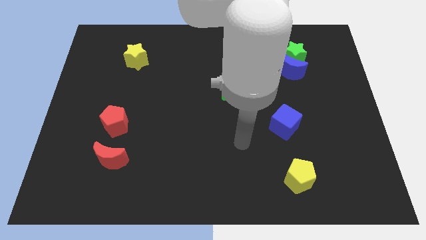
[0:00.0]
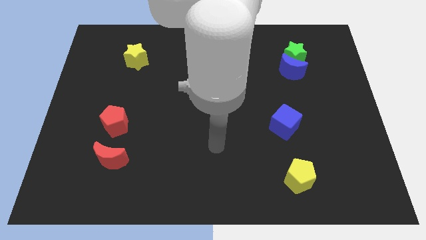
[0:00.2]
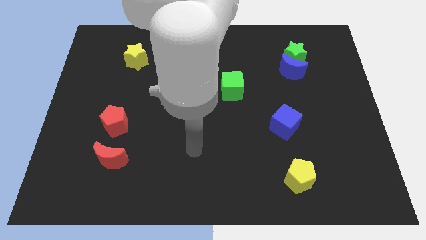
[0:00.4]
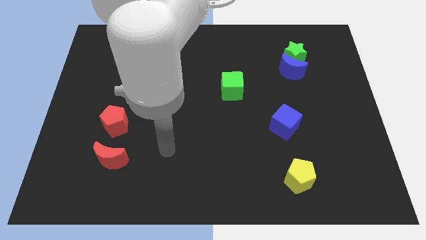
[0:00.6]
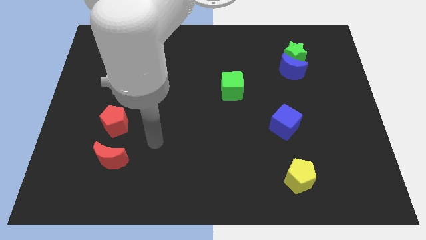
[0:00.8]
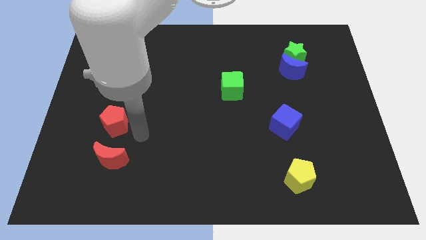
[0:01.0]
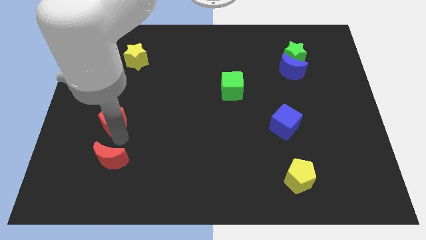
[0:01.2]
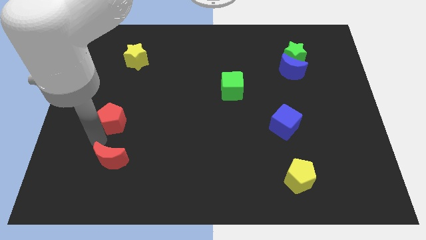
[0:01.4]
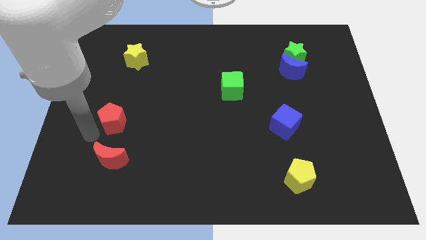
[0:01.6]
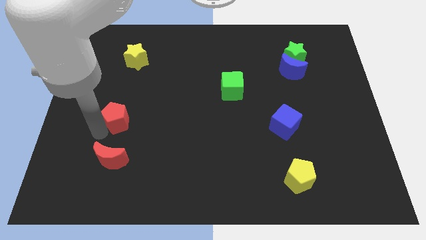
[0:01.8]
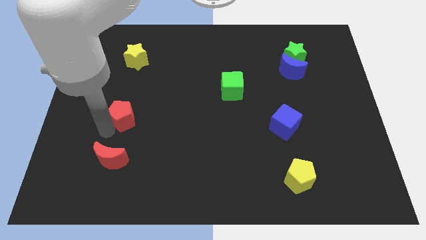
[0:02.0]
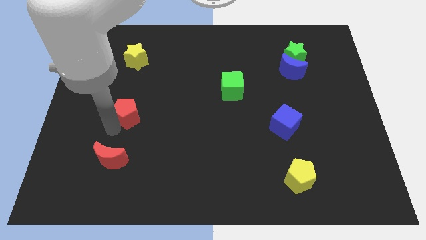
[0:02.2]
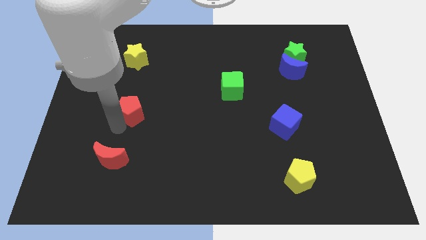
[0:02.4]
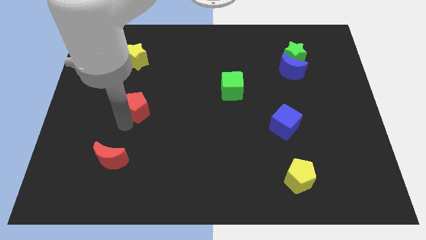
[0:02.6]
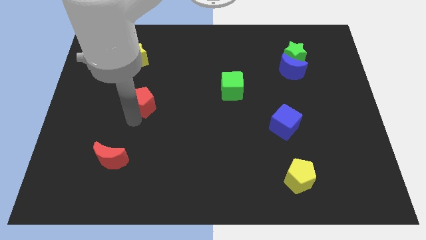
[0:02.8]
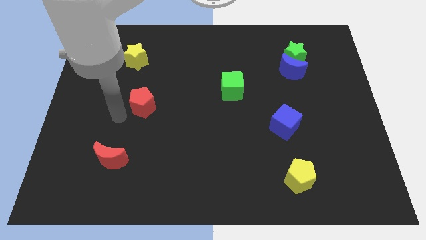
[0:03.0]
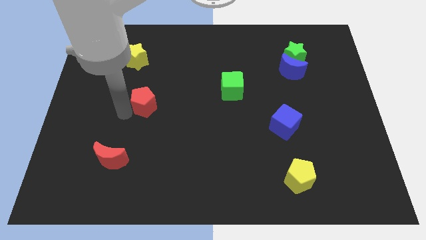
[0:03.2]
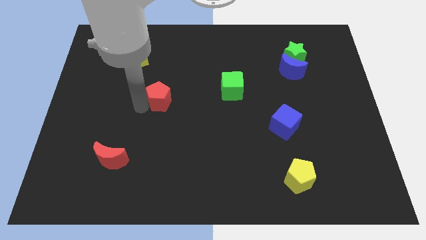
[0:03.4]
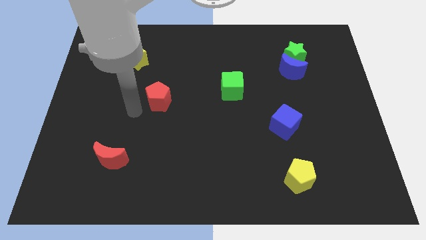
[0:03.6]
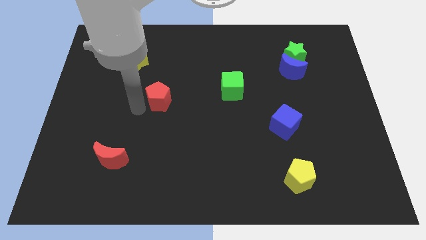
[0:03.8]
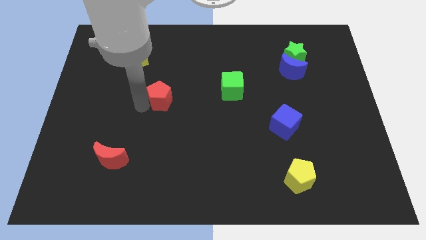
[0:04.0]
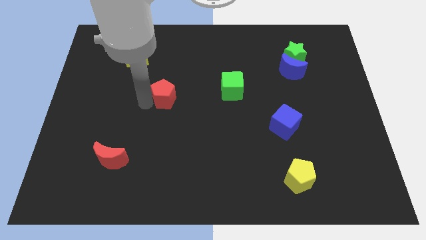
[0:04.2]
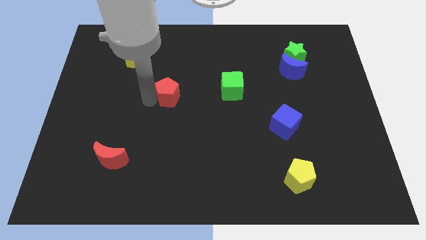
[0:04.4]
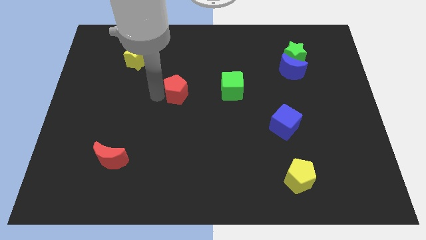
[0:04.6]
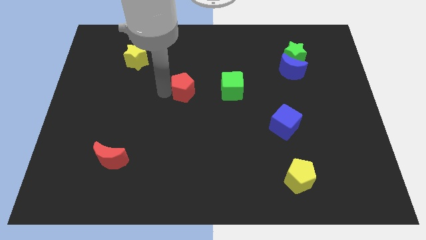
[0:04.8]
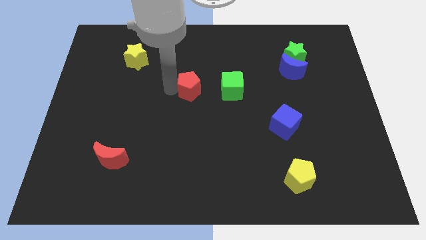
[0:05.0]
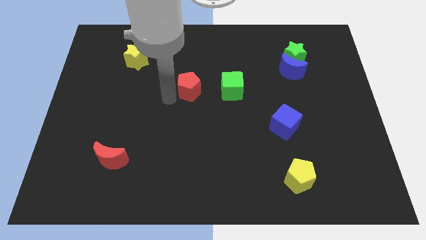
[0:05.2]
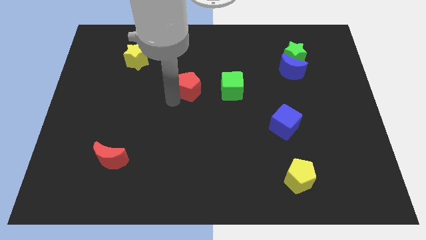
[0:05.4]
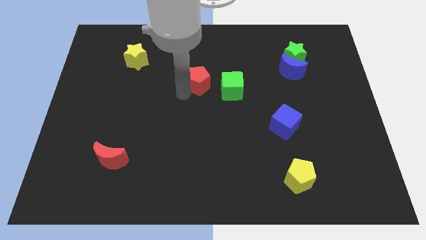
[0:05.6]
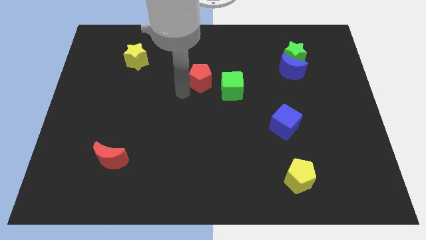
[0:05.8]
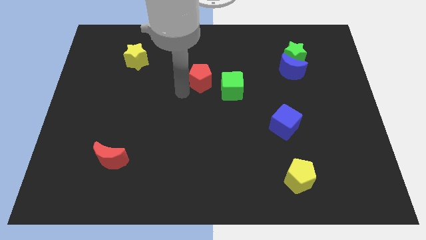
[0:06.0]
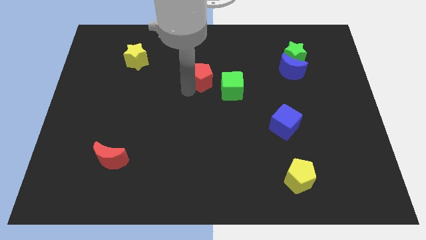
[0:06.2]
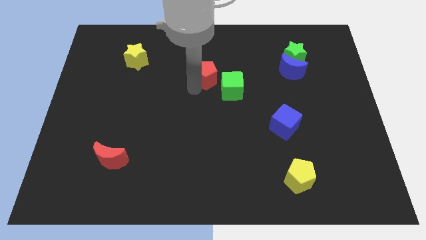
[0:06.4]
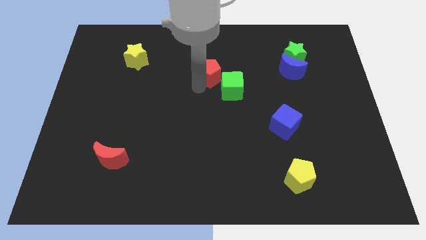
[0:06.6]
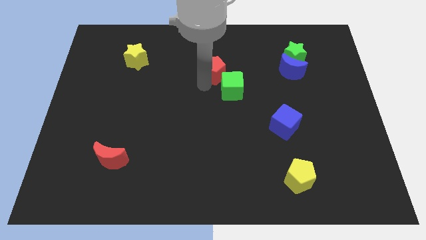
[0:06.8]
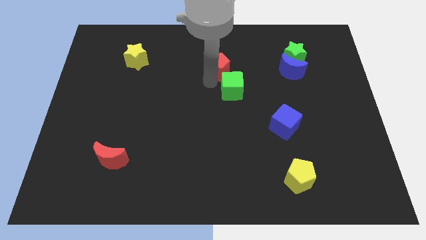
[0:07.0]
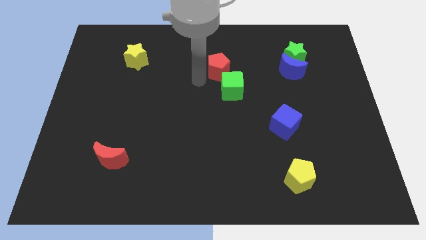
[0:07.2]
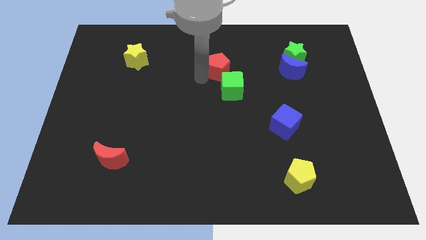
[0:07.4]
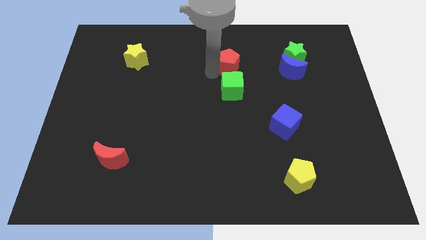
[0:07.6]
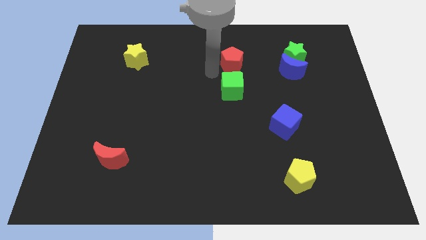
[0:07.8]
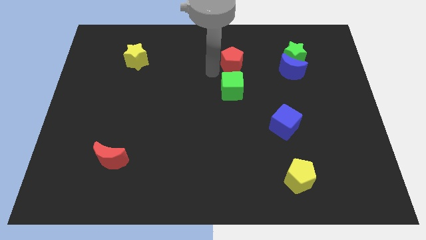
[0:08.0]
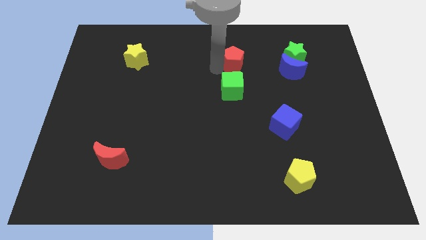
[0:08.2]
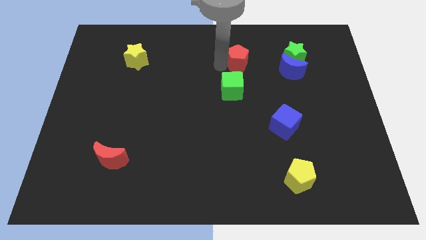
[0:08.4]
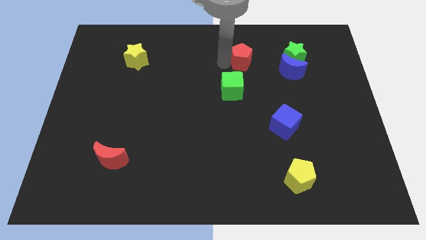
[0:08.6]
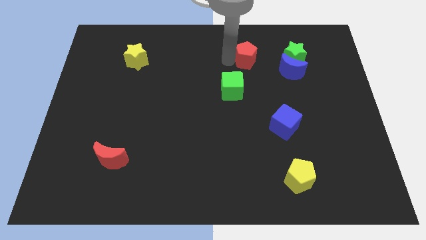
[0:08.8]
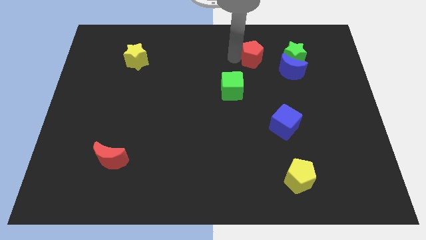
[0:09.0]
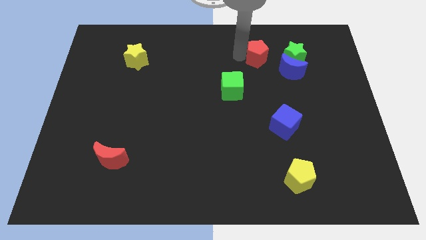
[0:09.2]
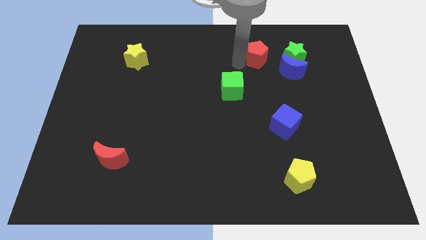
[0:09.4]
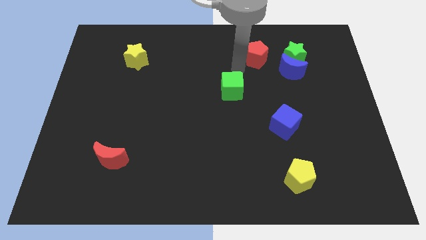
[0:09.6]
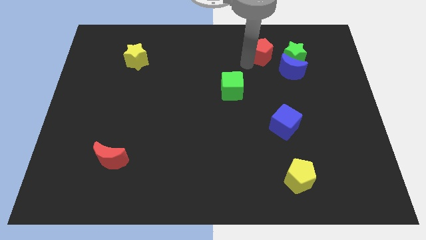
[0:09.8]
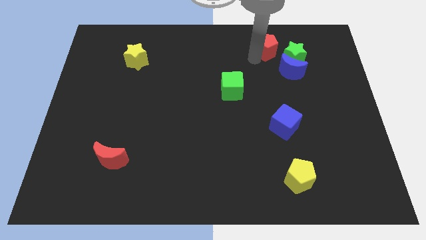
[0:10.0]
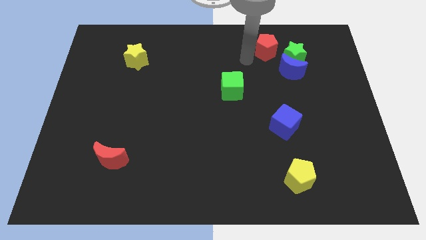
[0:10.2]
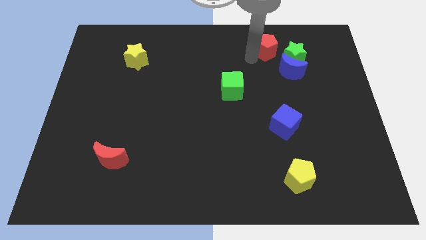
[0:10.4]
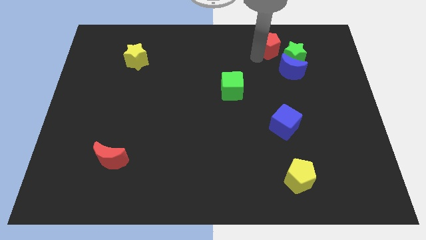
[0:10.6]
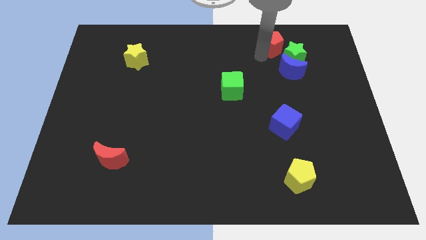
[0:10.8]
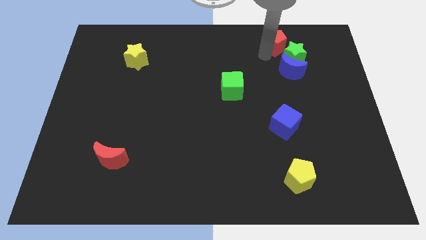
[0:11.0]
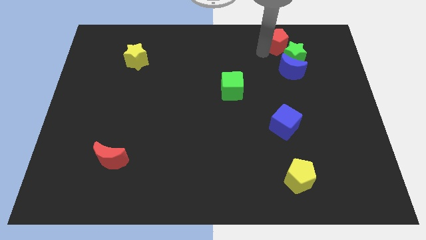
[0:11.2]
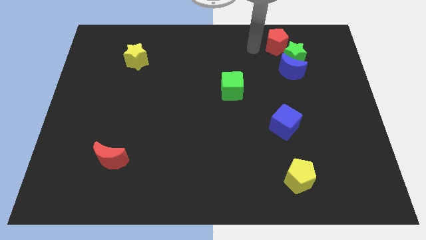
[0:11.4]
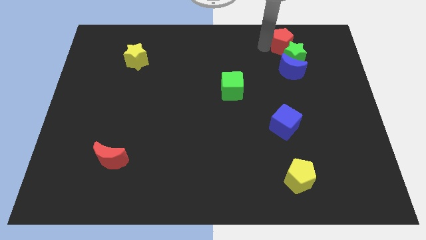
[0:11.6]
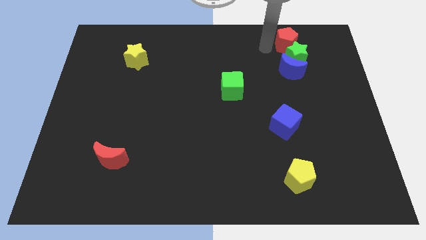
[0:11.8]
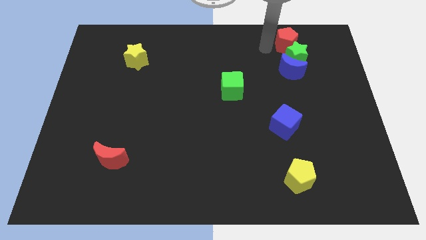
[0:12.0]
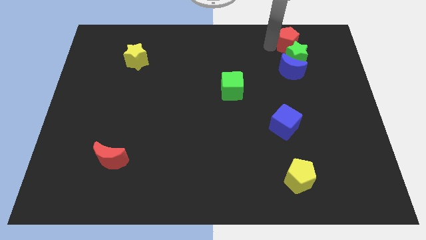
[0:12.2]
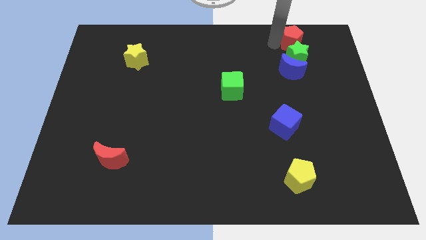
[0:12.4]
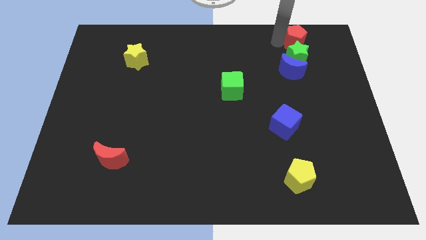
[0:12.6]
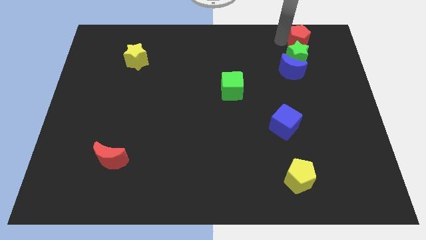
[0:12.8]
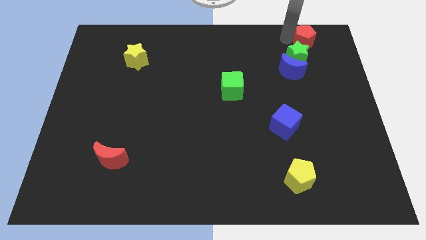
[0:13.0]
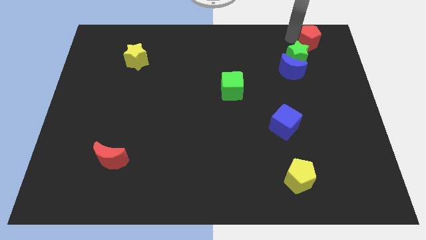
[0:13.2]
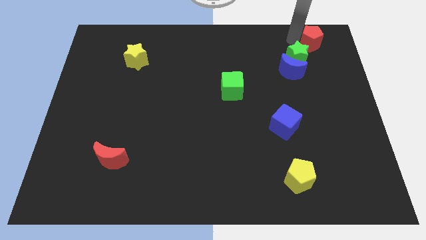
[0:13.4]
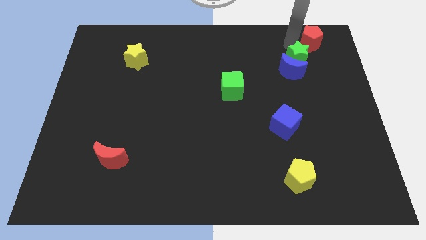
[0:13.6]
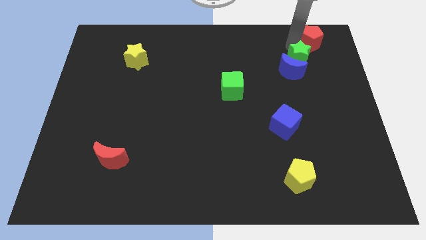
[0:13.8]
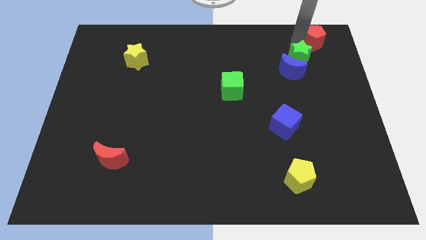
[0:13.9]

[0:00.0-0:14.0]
push the red pentagon to the top right
